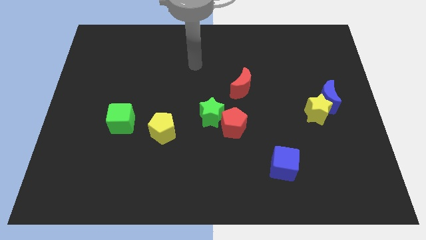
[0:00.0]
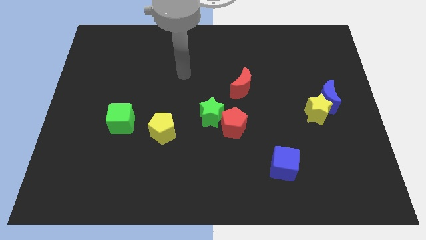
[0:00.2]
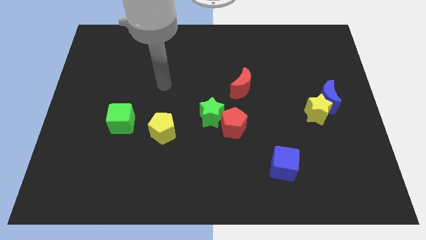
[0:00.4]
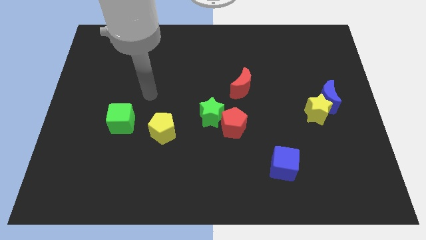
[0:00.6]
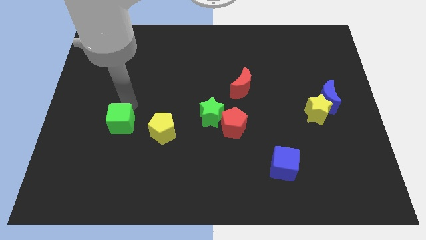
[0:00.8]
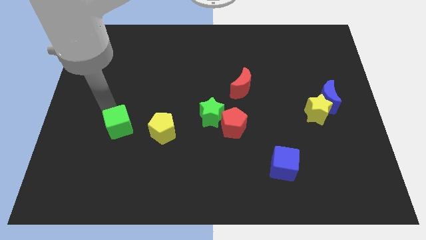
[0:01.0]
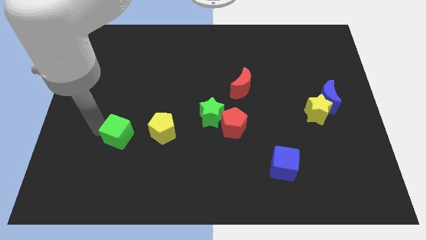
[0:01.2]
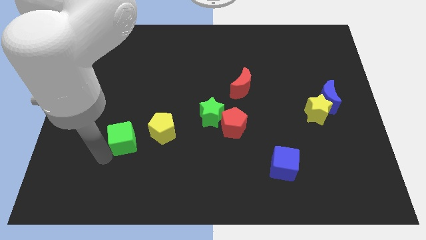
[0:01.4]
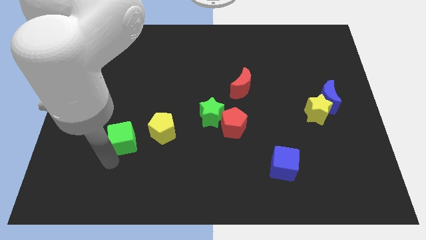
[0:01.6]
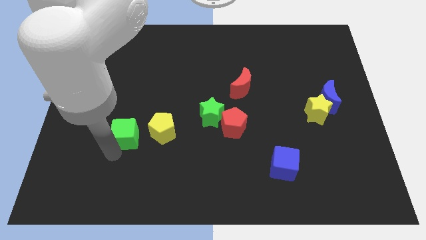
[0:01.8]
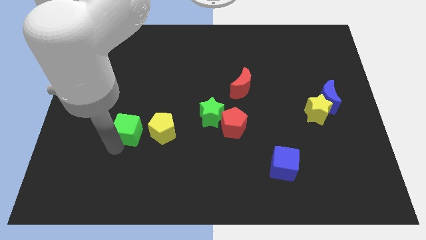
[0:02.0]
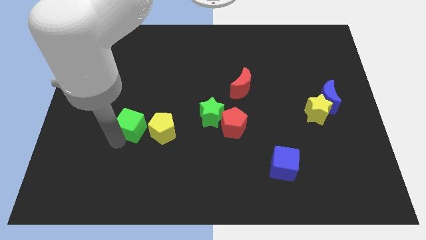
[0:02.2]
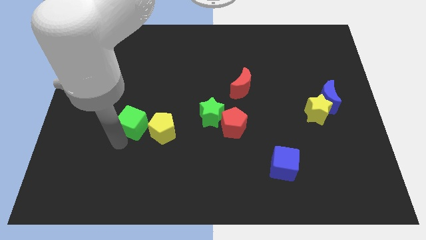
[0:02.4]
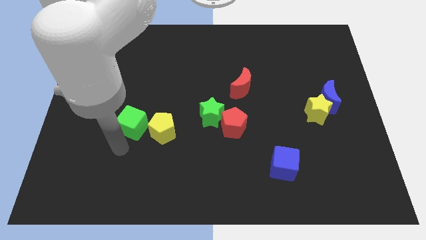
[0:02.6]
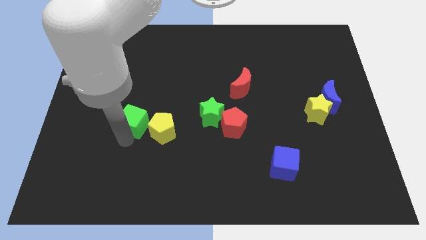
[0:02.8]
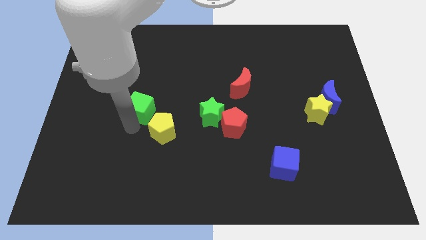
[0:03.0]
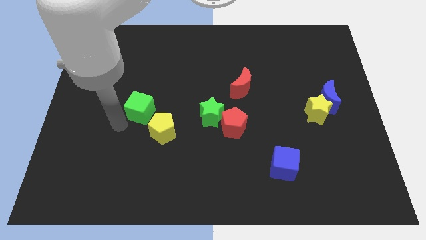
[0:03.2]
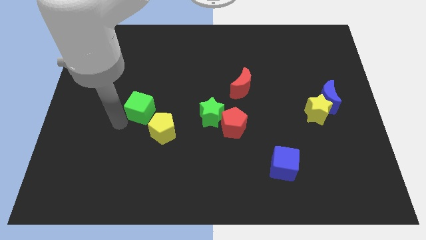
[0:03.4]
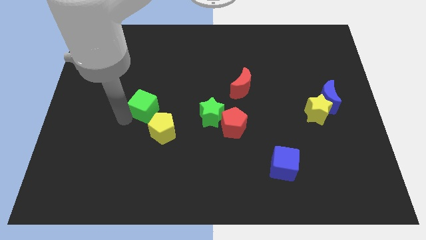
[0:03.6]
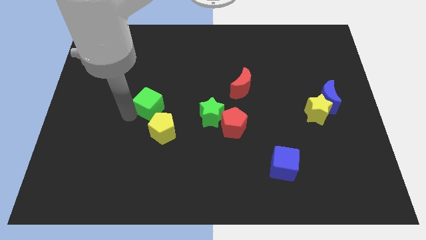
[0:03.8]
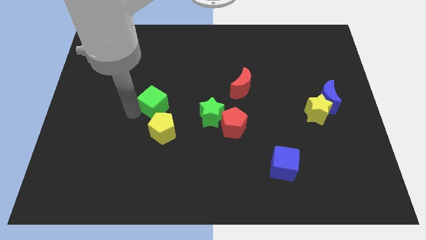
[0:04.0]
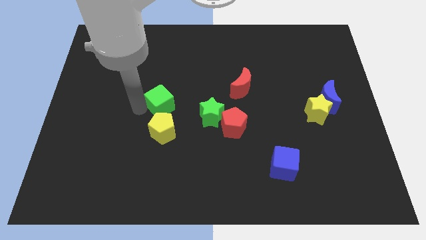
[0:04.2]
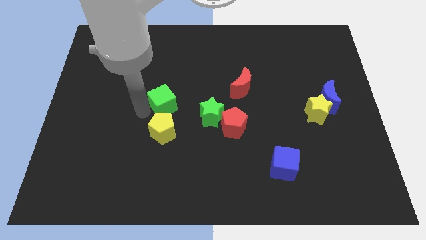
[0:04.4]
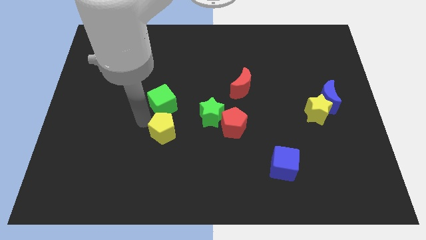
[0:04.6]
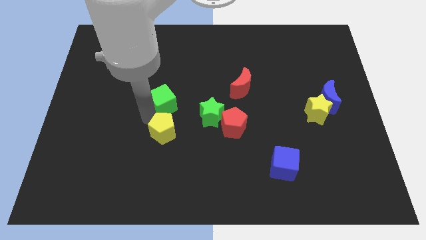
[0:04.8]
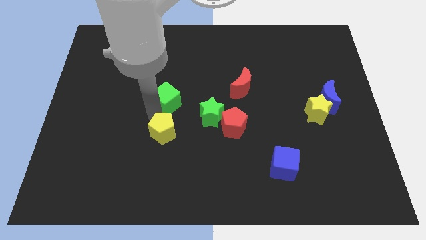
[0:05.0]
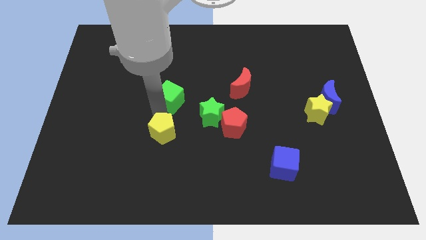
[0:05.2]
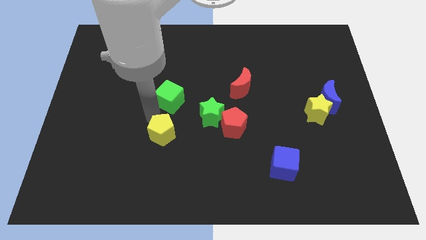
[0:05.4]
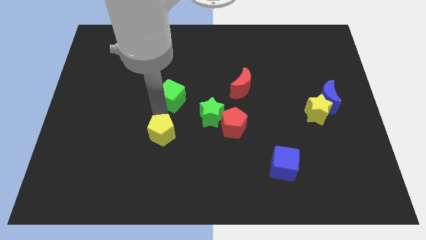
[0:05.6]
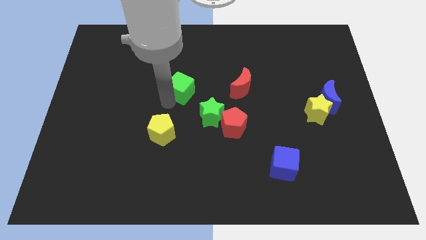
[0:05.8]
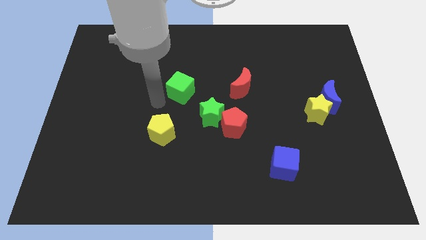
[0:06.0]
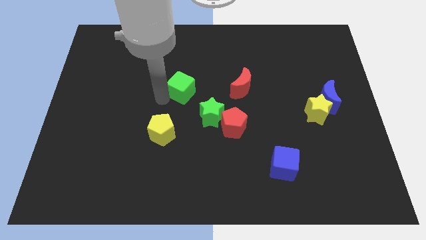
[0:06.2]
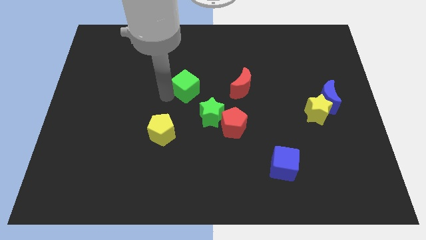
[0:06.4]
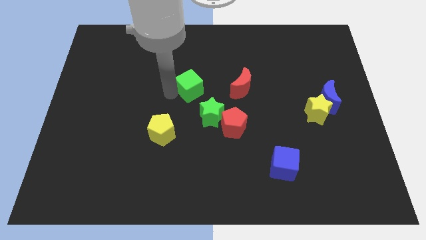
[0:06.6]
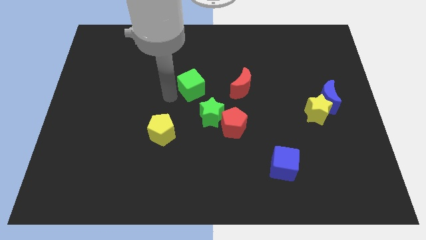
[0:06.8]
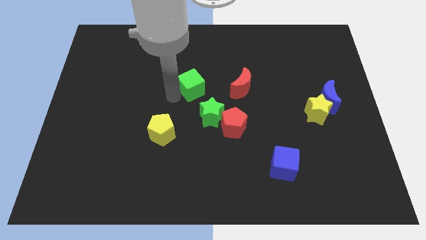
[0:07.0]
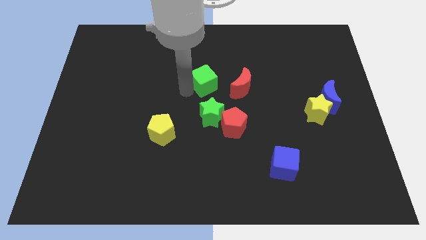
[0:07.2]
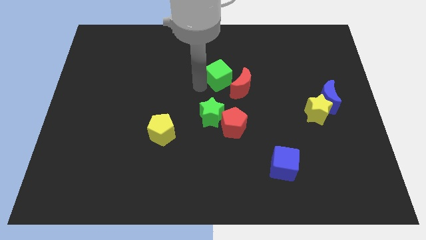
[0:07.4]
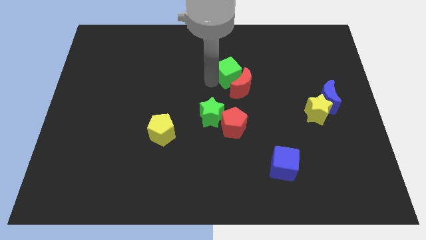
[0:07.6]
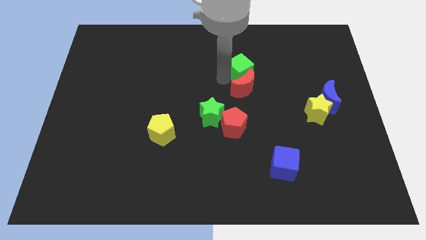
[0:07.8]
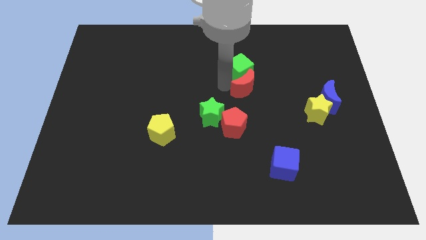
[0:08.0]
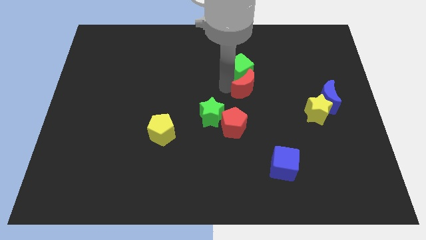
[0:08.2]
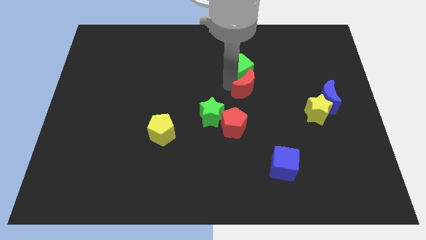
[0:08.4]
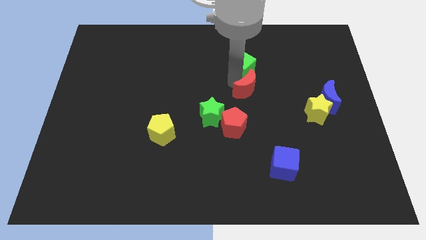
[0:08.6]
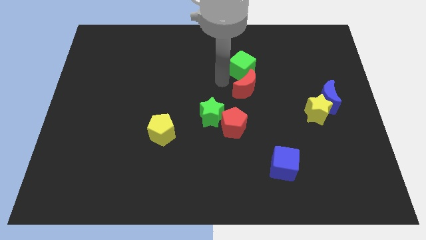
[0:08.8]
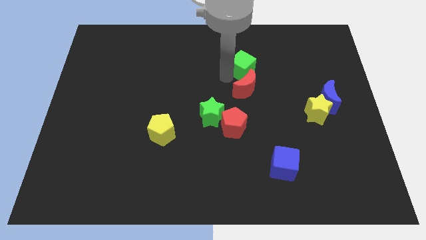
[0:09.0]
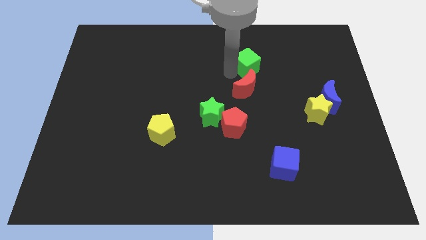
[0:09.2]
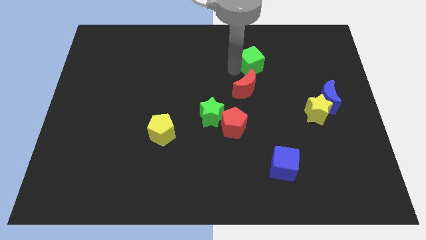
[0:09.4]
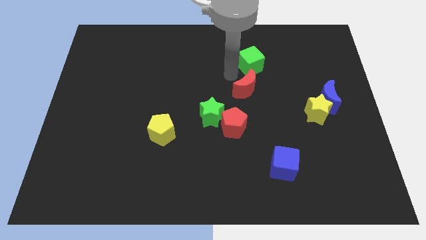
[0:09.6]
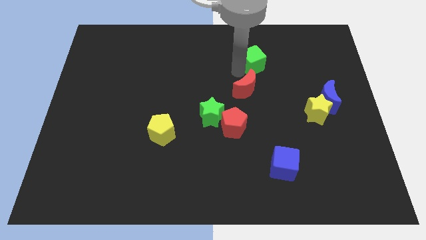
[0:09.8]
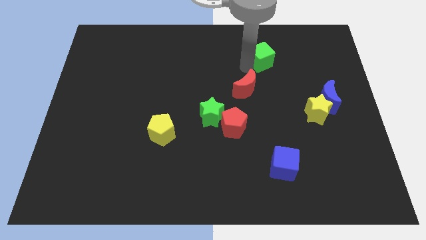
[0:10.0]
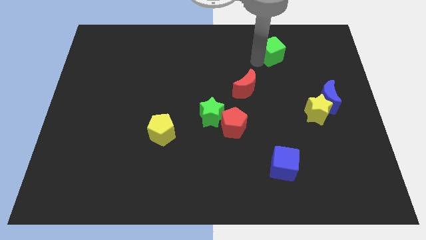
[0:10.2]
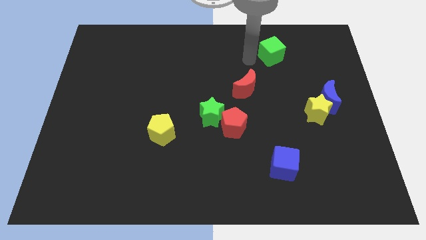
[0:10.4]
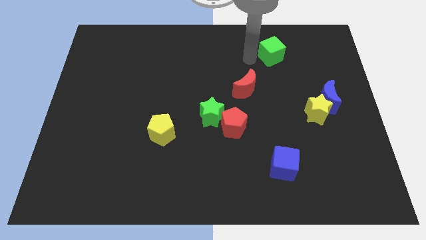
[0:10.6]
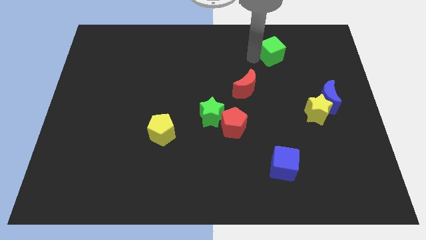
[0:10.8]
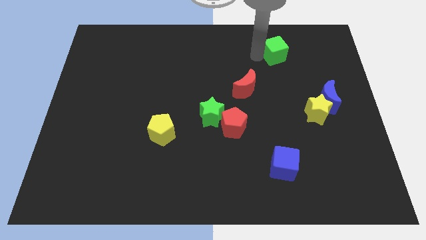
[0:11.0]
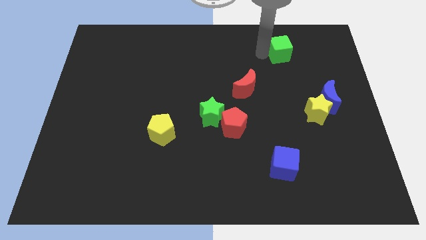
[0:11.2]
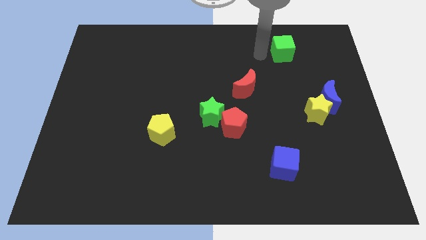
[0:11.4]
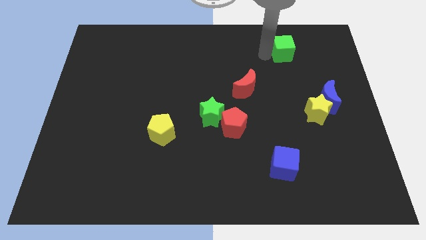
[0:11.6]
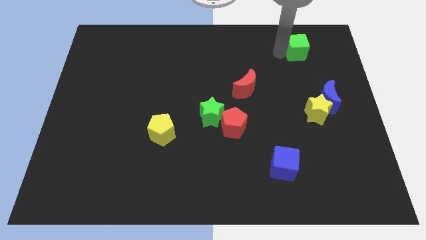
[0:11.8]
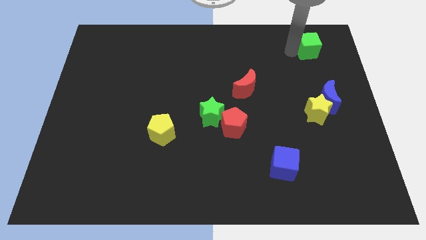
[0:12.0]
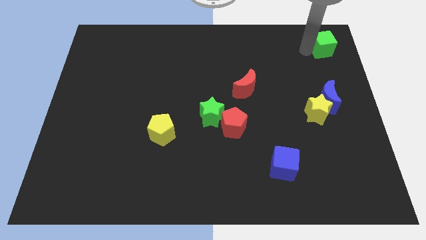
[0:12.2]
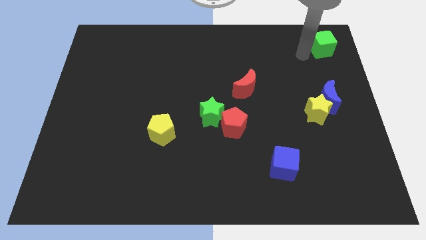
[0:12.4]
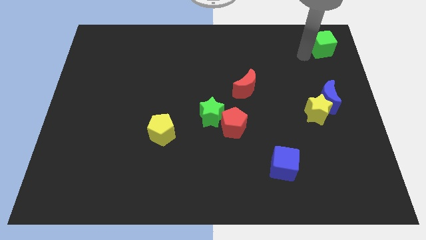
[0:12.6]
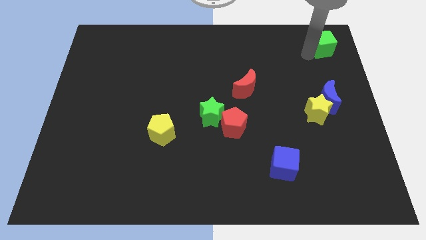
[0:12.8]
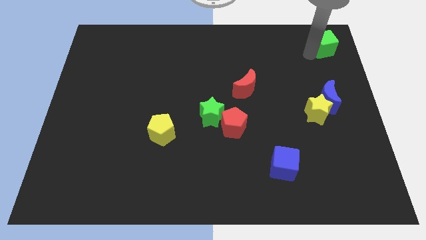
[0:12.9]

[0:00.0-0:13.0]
move the green cube to the top right of the board

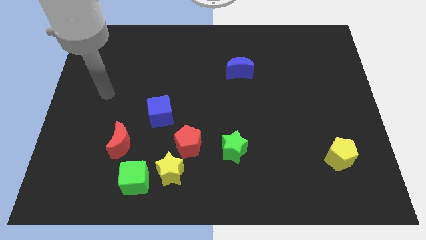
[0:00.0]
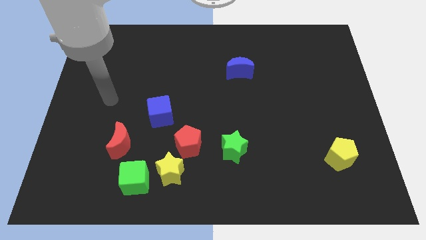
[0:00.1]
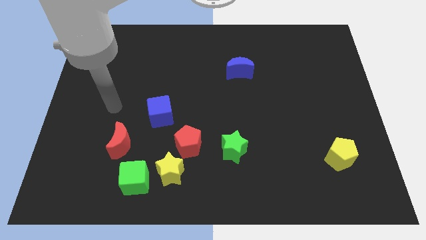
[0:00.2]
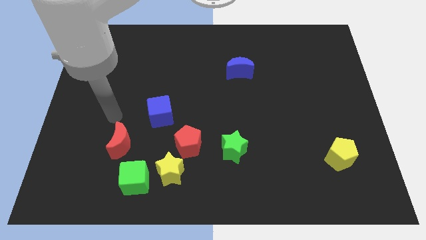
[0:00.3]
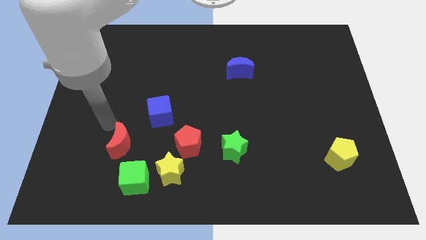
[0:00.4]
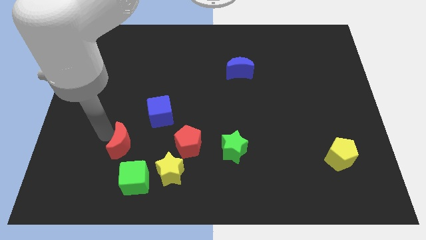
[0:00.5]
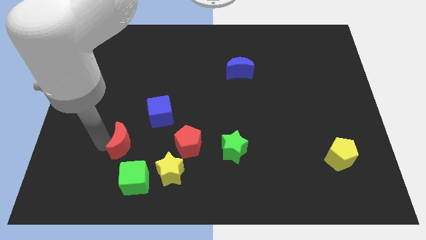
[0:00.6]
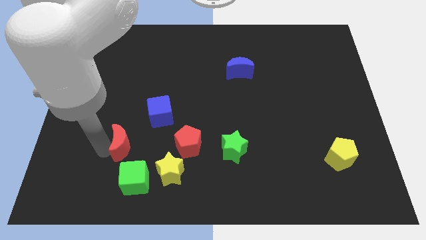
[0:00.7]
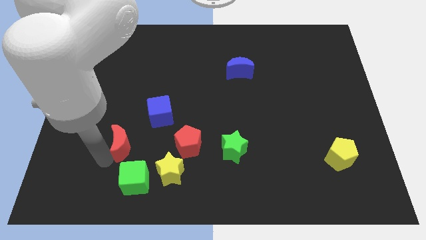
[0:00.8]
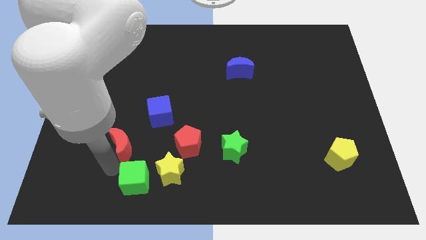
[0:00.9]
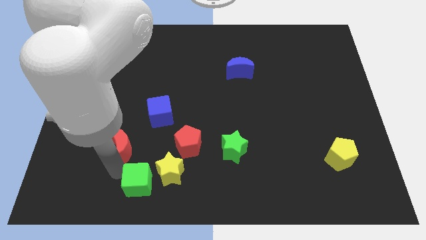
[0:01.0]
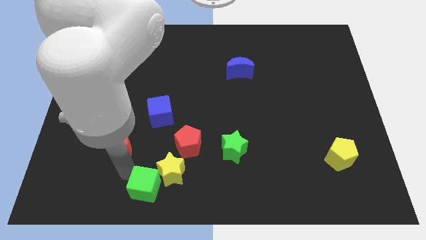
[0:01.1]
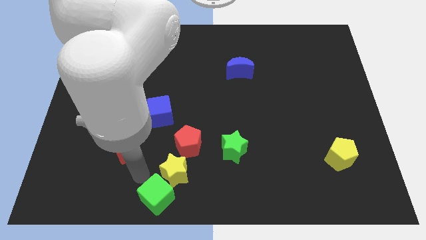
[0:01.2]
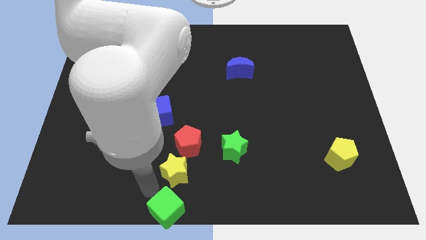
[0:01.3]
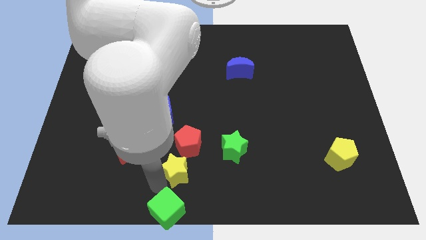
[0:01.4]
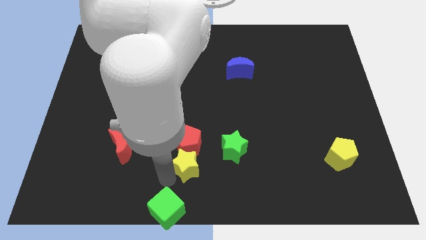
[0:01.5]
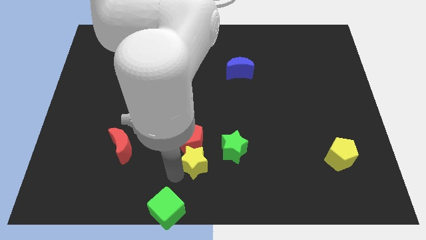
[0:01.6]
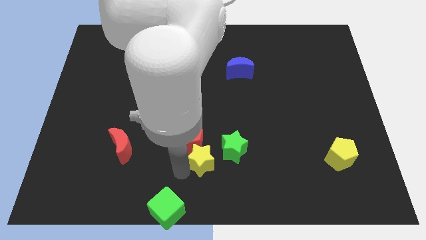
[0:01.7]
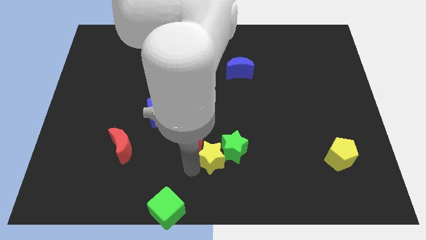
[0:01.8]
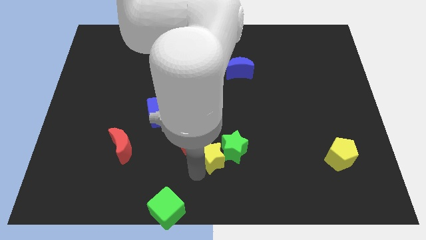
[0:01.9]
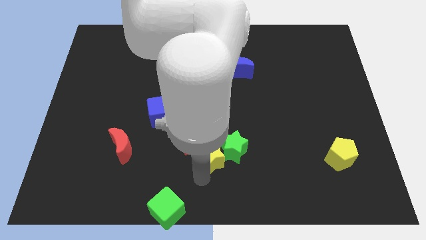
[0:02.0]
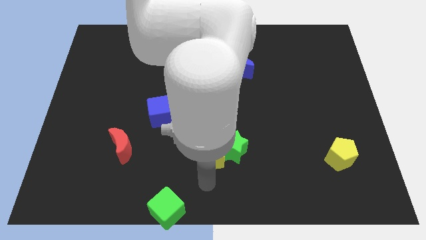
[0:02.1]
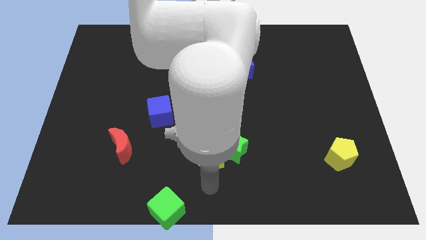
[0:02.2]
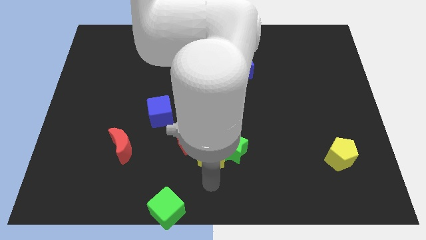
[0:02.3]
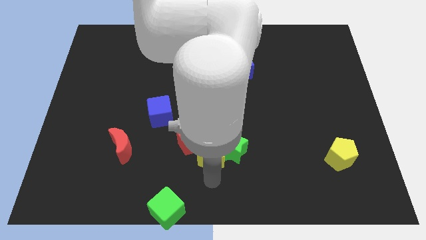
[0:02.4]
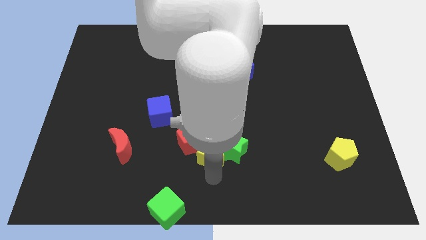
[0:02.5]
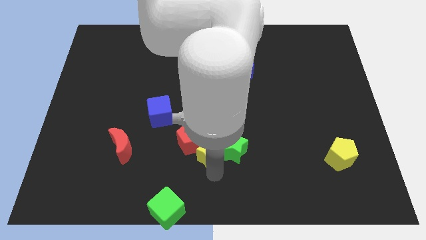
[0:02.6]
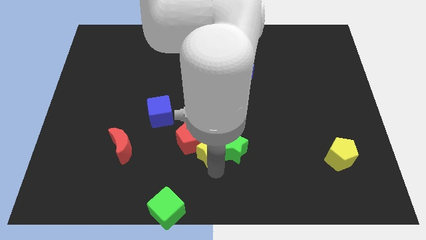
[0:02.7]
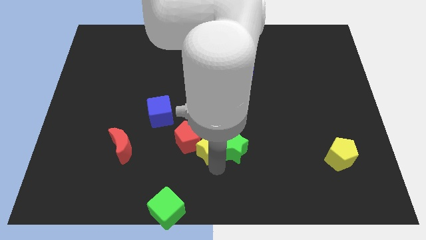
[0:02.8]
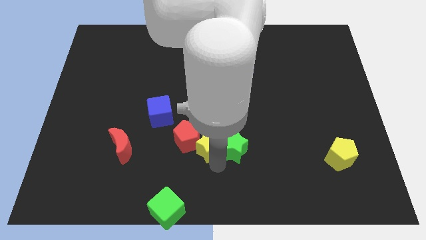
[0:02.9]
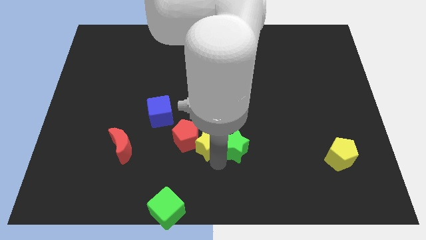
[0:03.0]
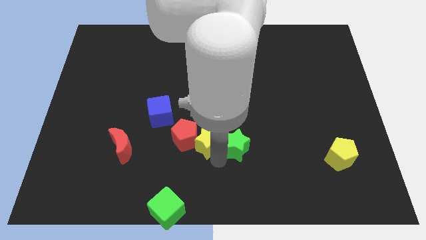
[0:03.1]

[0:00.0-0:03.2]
push the yellow star to the center of the board
